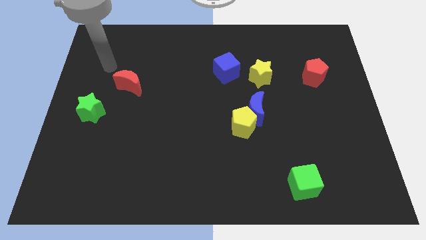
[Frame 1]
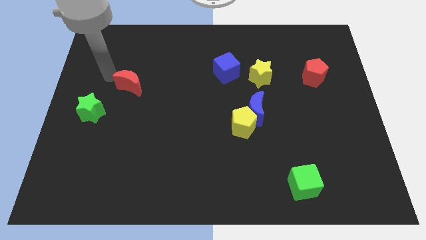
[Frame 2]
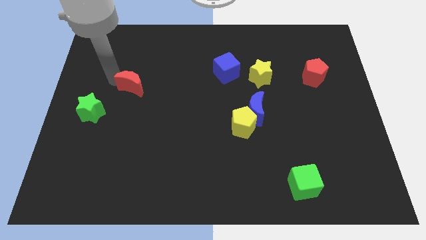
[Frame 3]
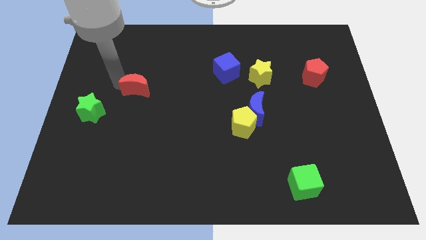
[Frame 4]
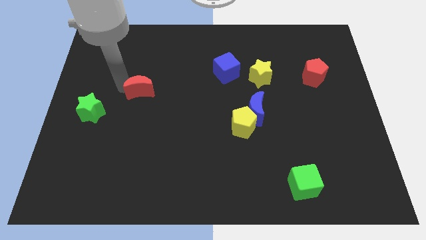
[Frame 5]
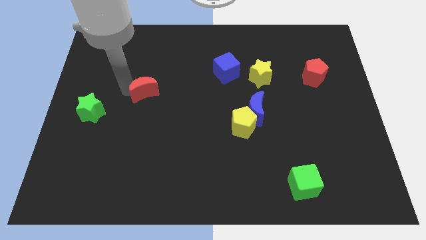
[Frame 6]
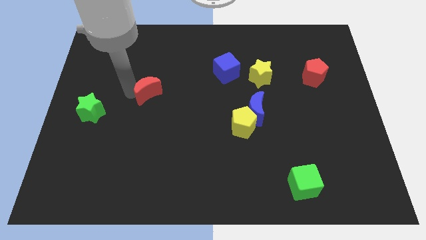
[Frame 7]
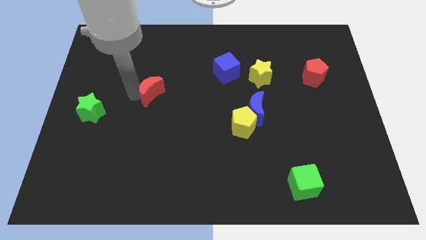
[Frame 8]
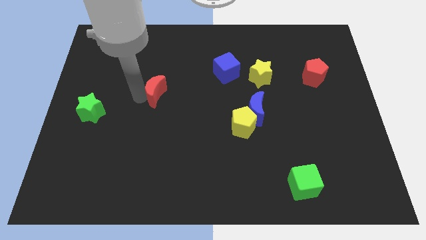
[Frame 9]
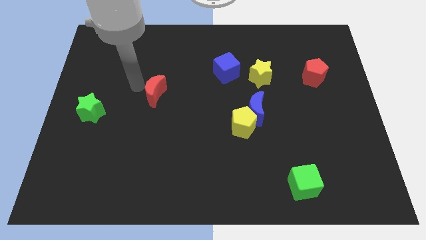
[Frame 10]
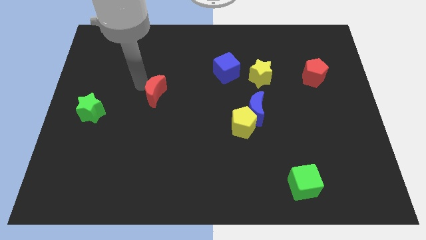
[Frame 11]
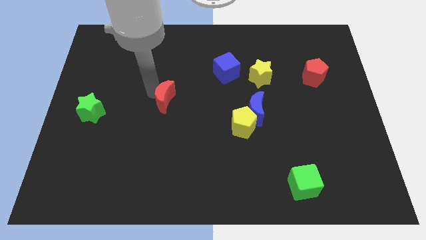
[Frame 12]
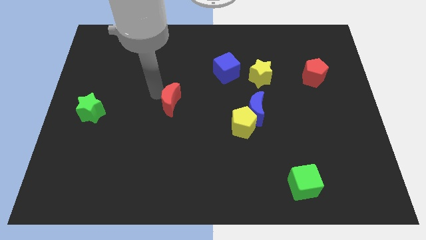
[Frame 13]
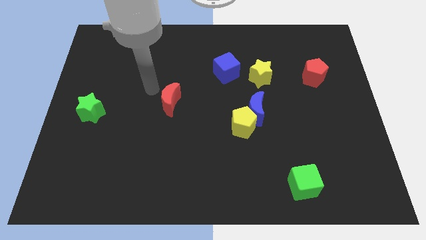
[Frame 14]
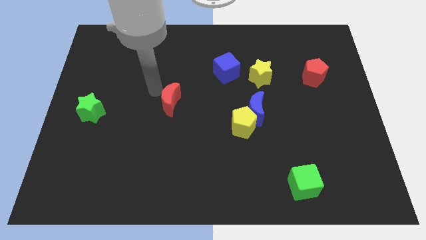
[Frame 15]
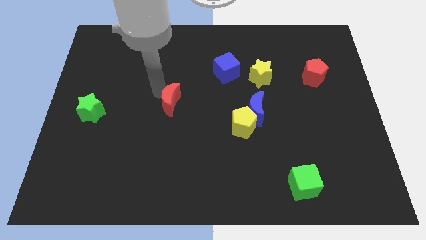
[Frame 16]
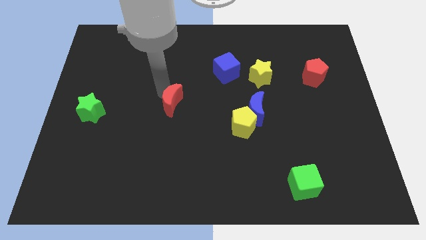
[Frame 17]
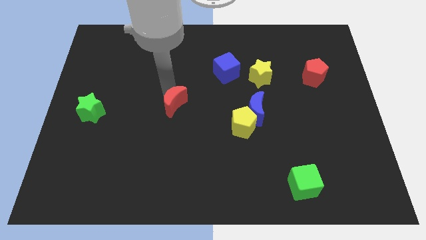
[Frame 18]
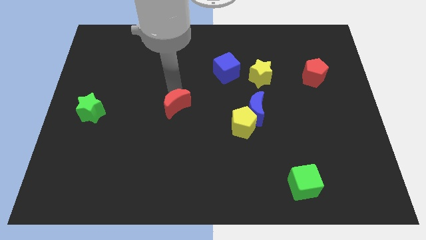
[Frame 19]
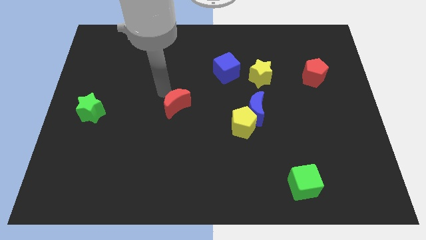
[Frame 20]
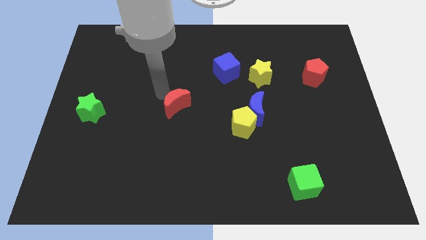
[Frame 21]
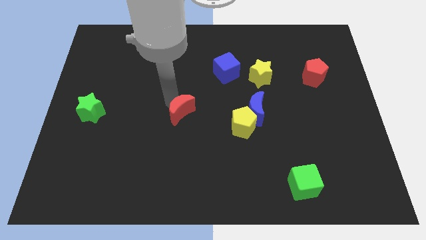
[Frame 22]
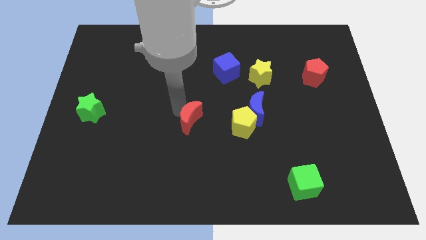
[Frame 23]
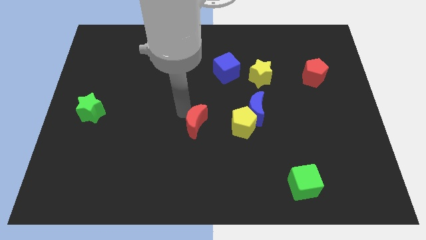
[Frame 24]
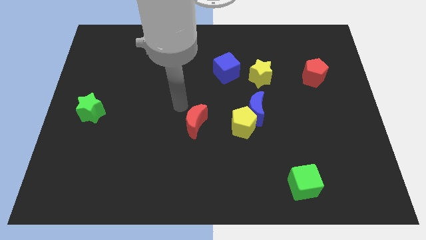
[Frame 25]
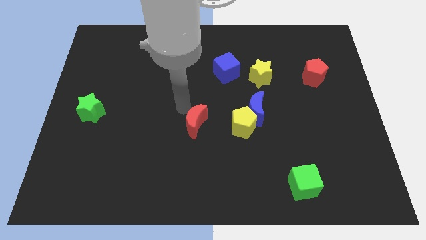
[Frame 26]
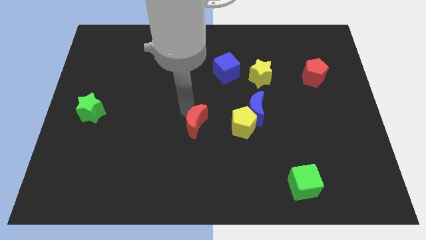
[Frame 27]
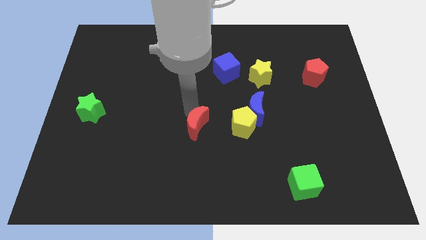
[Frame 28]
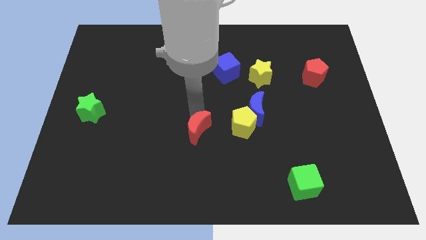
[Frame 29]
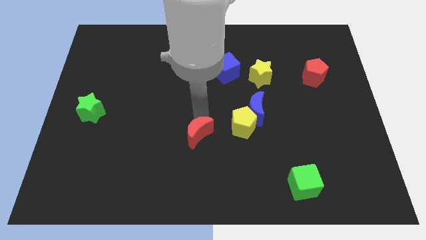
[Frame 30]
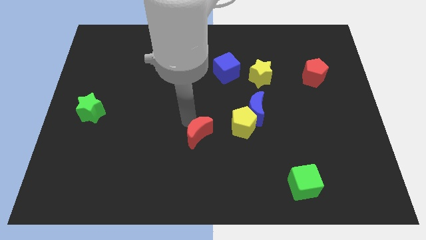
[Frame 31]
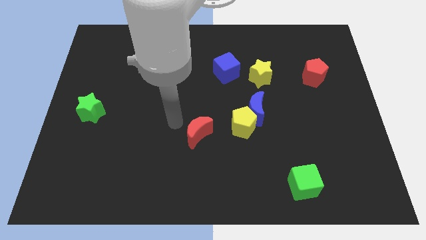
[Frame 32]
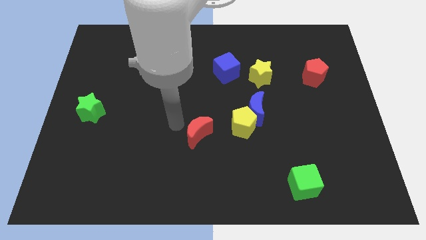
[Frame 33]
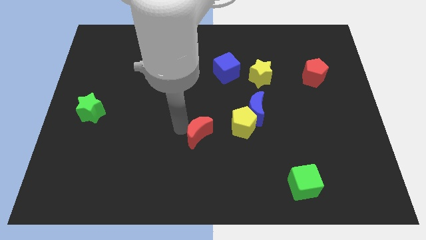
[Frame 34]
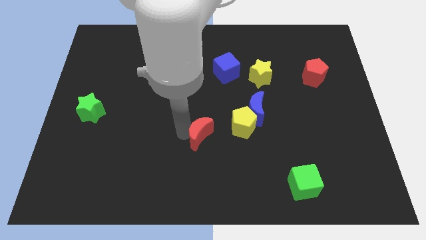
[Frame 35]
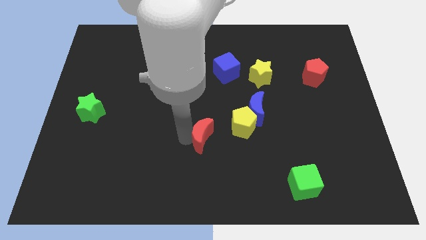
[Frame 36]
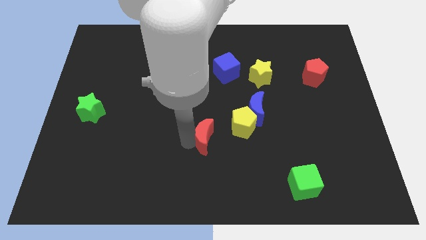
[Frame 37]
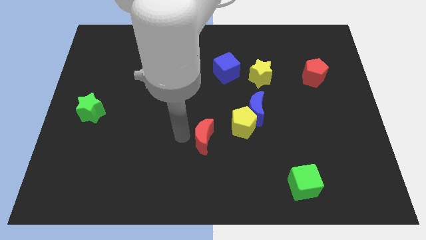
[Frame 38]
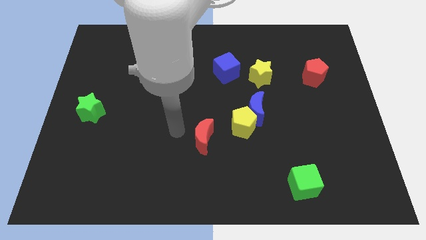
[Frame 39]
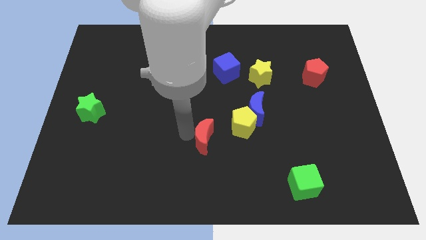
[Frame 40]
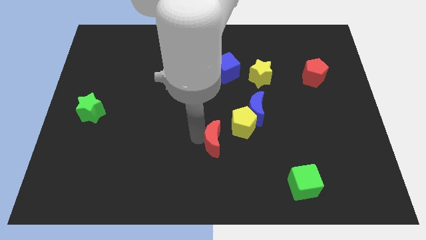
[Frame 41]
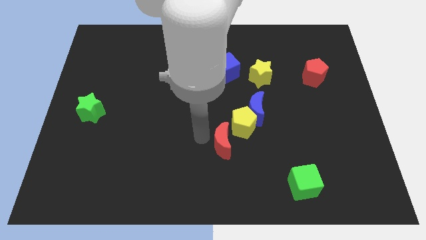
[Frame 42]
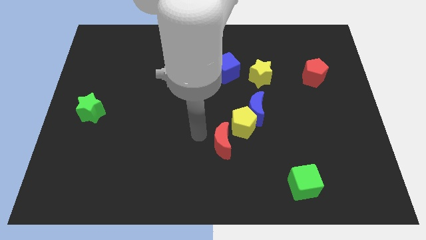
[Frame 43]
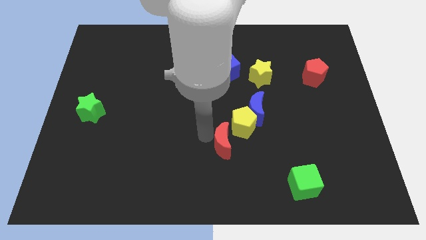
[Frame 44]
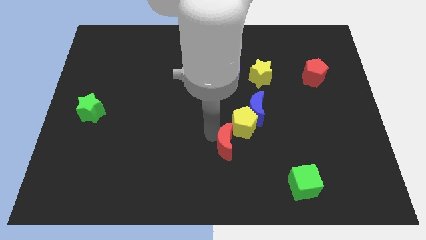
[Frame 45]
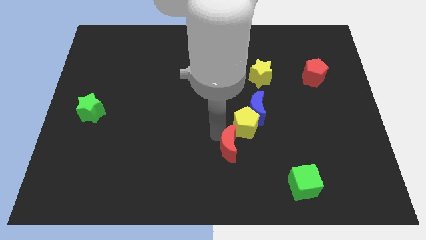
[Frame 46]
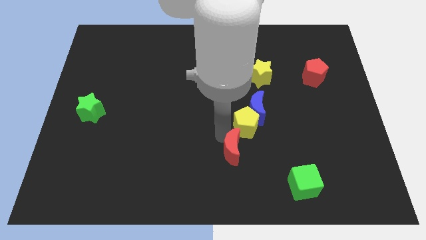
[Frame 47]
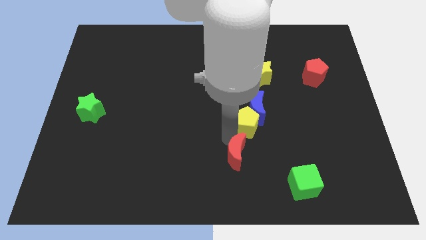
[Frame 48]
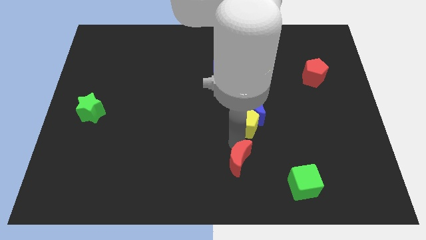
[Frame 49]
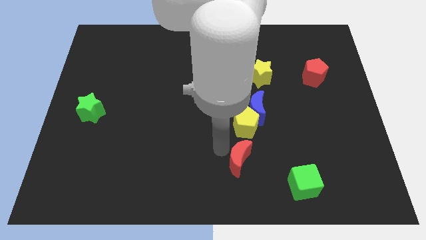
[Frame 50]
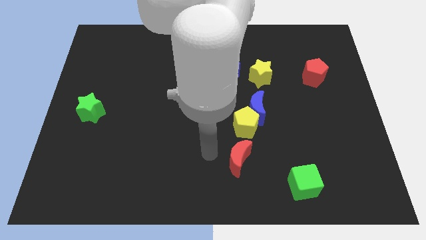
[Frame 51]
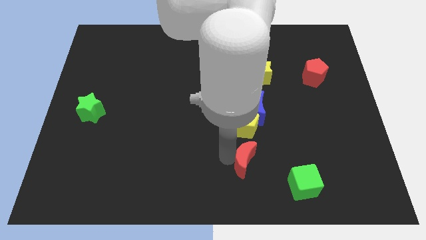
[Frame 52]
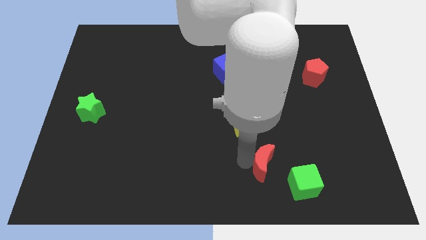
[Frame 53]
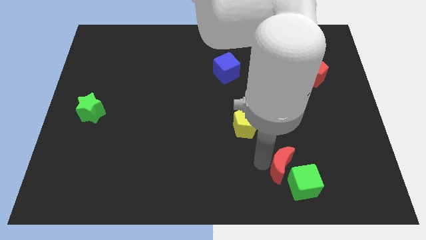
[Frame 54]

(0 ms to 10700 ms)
put the red moon towards the green cube
